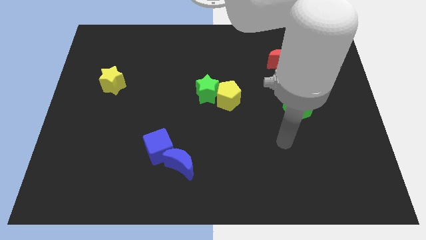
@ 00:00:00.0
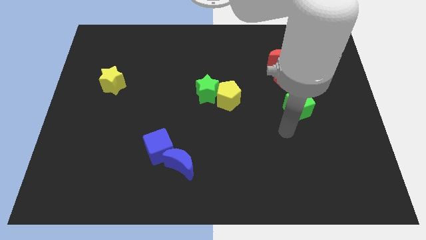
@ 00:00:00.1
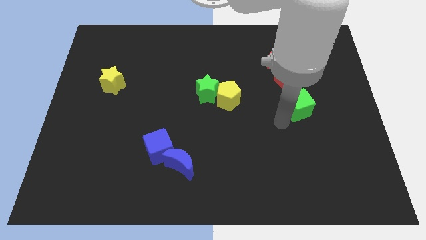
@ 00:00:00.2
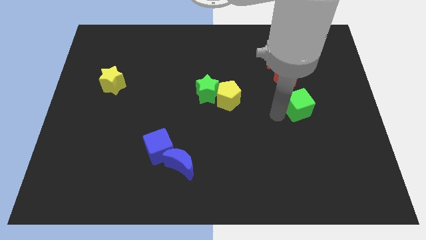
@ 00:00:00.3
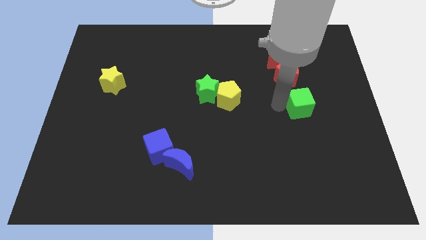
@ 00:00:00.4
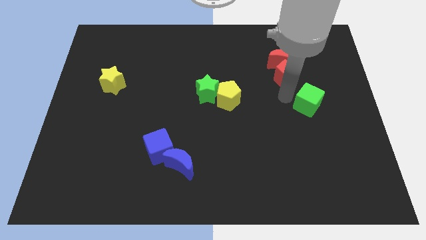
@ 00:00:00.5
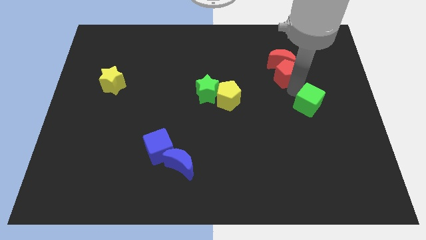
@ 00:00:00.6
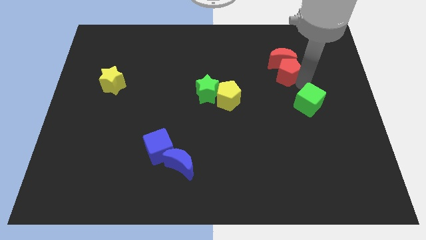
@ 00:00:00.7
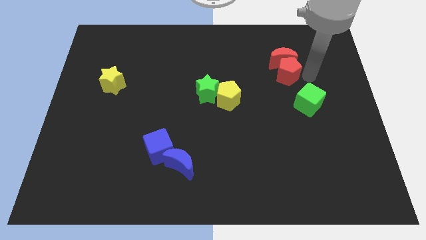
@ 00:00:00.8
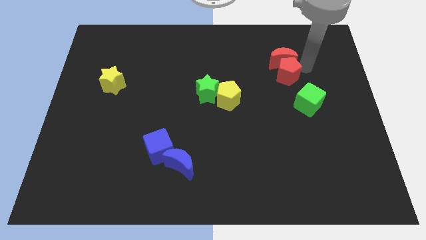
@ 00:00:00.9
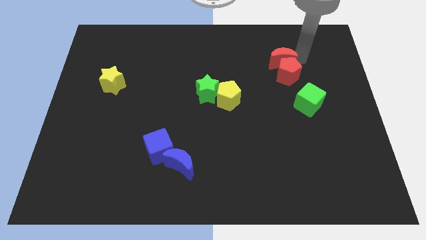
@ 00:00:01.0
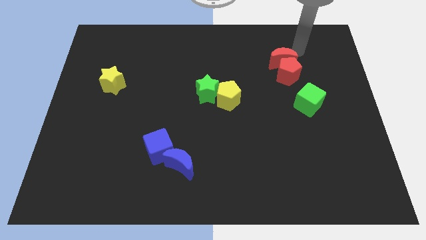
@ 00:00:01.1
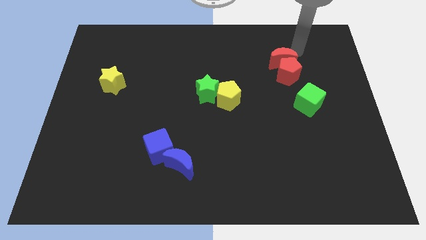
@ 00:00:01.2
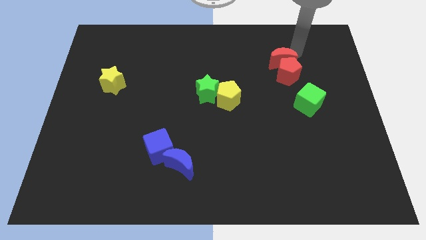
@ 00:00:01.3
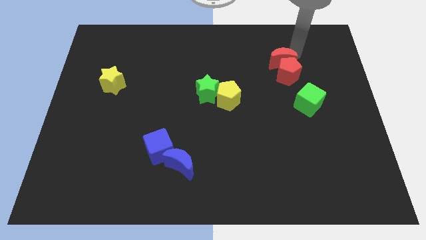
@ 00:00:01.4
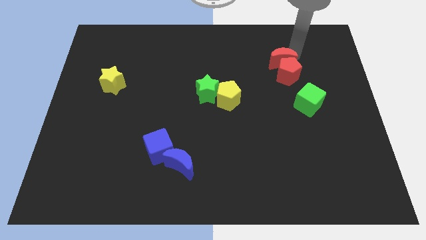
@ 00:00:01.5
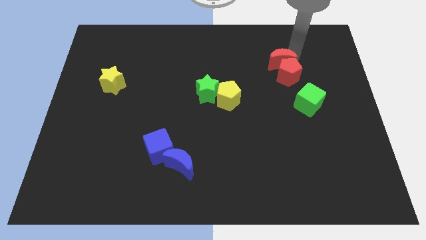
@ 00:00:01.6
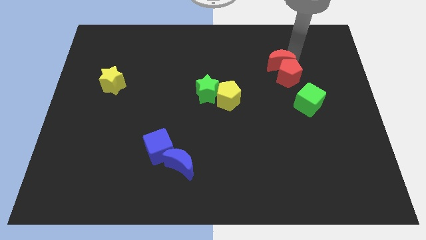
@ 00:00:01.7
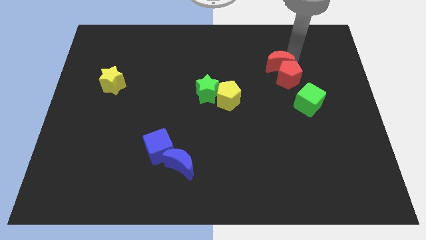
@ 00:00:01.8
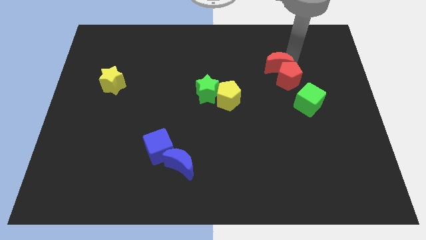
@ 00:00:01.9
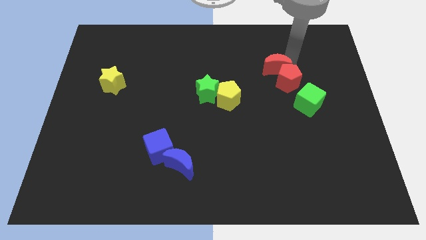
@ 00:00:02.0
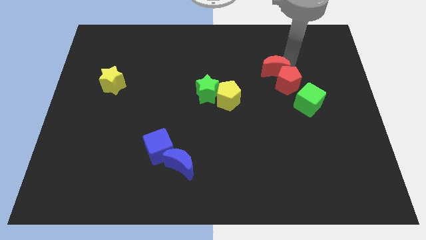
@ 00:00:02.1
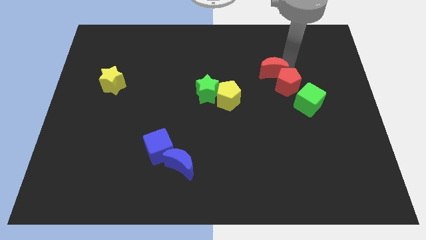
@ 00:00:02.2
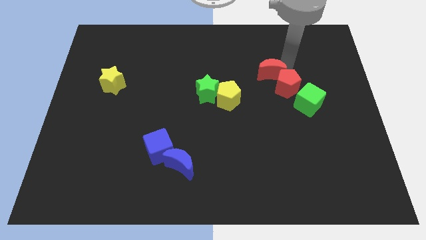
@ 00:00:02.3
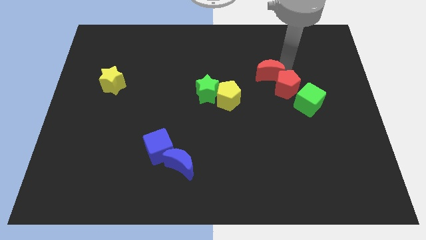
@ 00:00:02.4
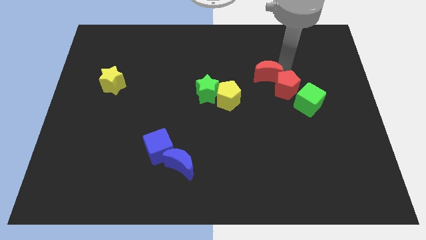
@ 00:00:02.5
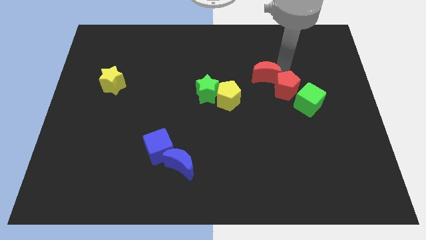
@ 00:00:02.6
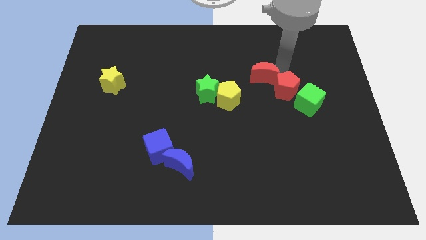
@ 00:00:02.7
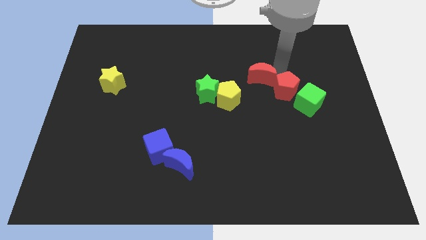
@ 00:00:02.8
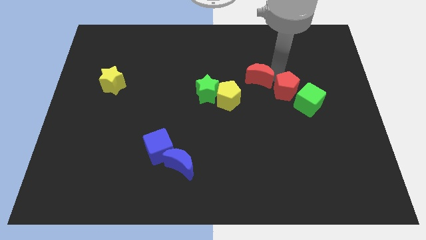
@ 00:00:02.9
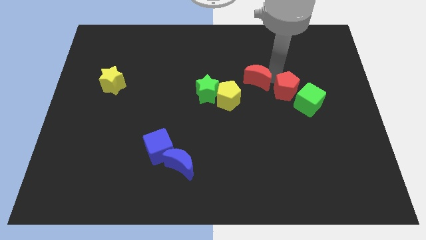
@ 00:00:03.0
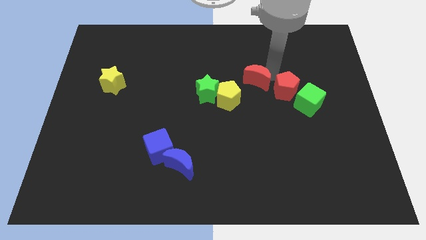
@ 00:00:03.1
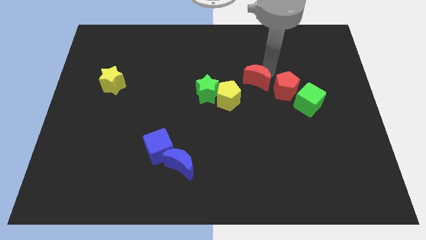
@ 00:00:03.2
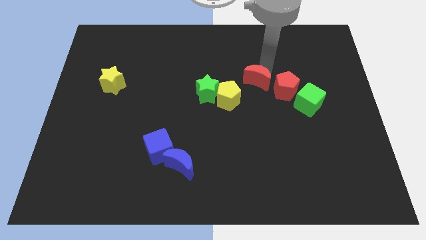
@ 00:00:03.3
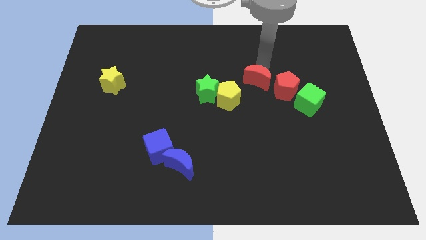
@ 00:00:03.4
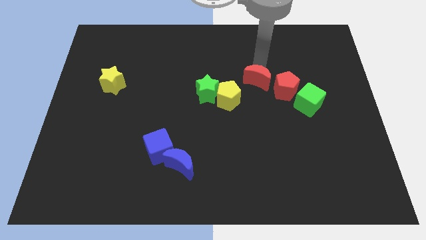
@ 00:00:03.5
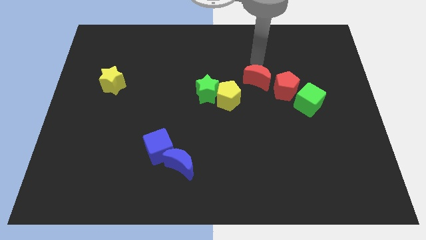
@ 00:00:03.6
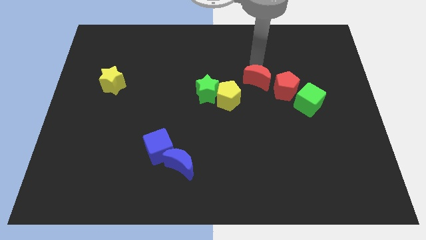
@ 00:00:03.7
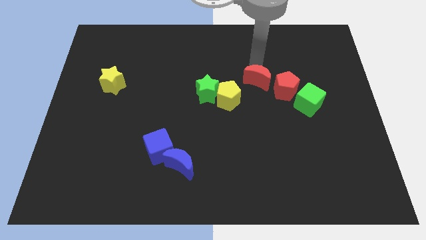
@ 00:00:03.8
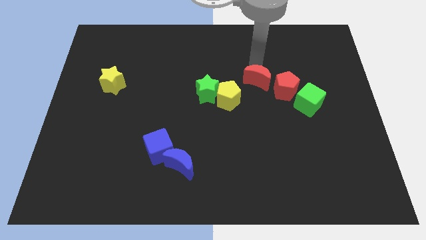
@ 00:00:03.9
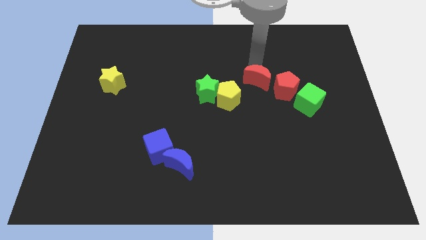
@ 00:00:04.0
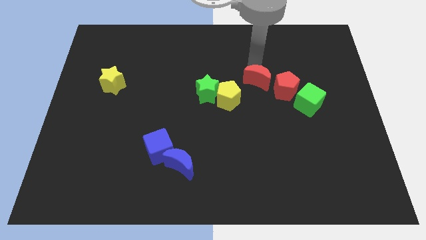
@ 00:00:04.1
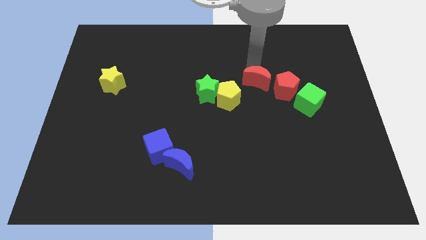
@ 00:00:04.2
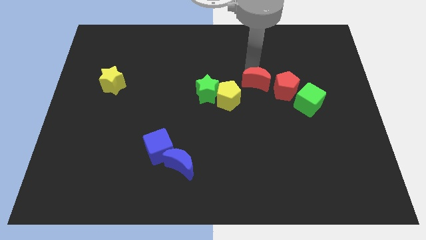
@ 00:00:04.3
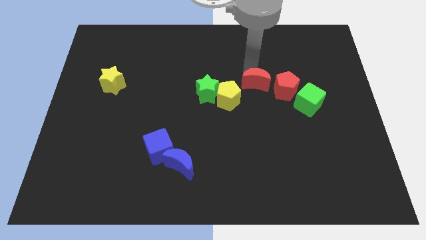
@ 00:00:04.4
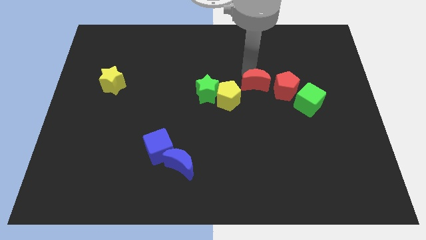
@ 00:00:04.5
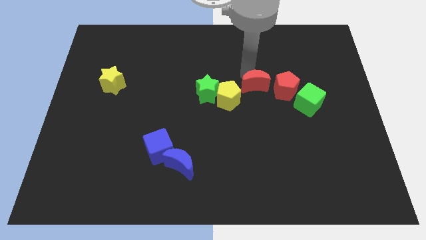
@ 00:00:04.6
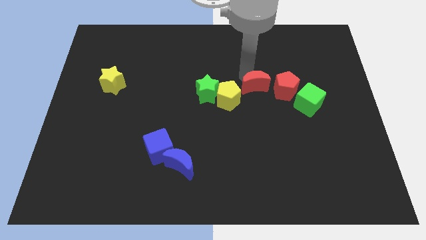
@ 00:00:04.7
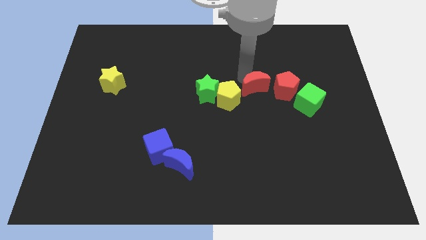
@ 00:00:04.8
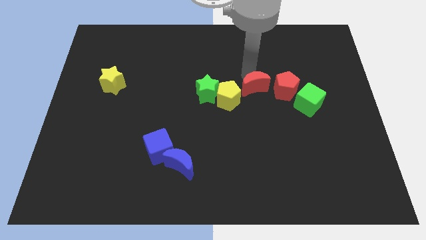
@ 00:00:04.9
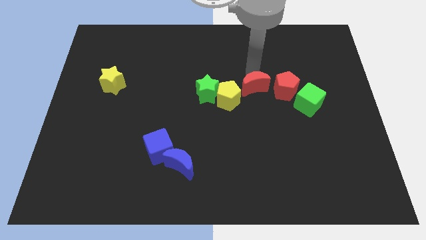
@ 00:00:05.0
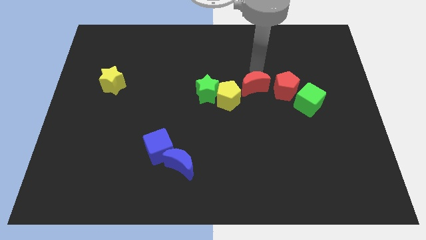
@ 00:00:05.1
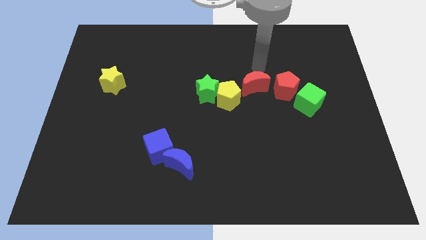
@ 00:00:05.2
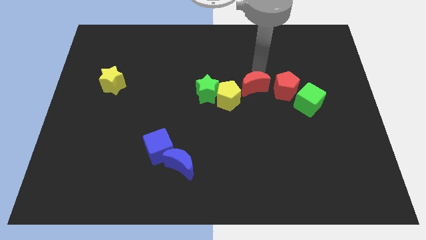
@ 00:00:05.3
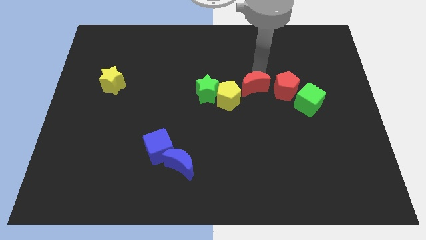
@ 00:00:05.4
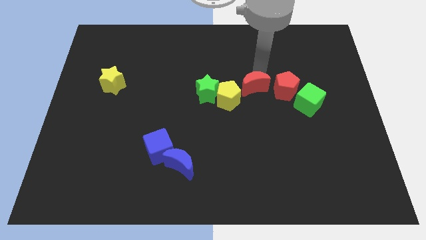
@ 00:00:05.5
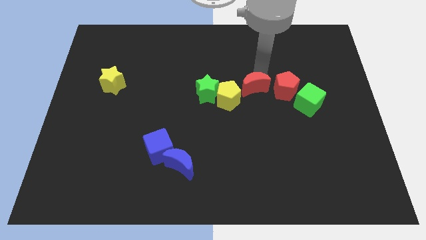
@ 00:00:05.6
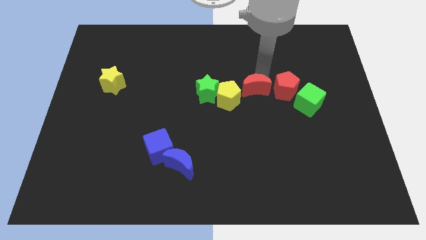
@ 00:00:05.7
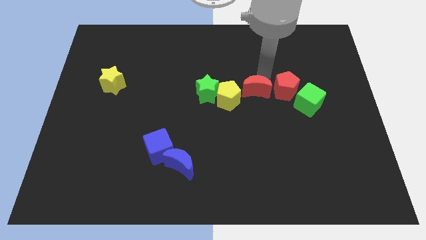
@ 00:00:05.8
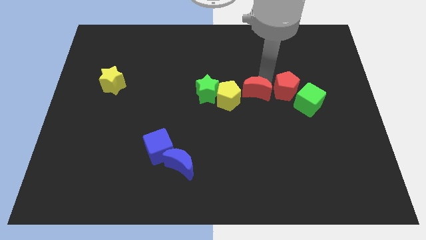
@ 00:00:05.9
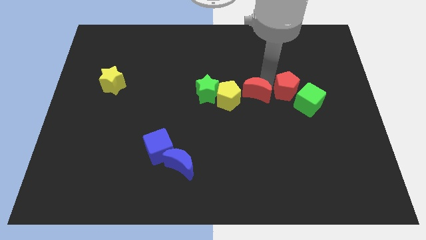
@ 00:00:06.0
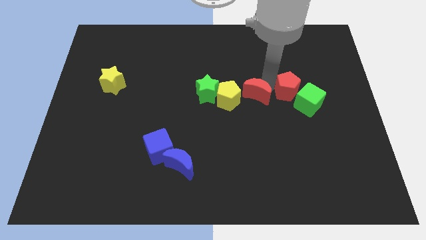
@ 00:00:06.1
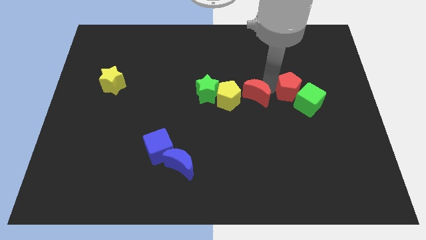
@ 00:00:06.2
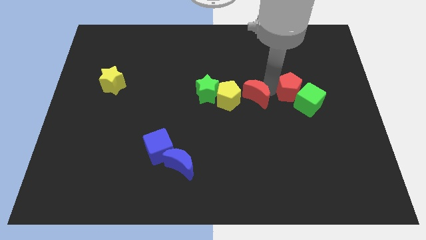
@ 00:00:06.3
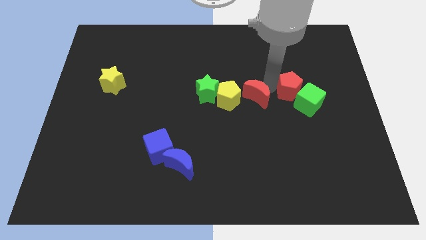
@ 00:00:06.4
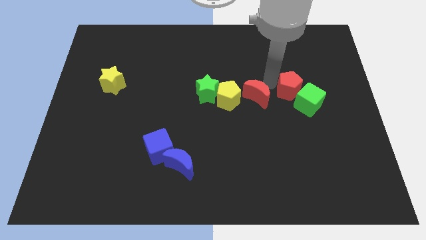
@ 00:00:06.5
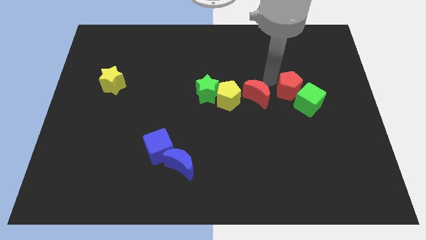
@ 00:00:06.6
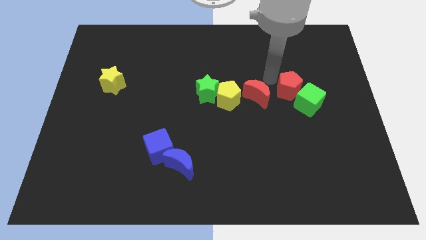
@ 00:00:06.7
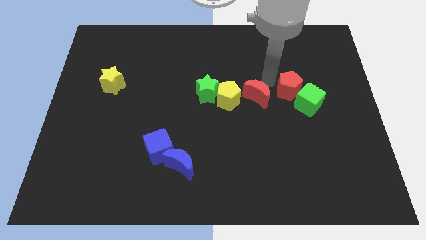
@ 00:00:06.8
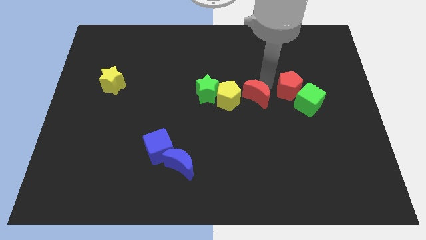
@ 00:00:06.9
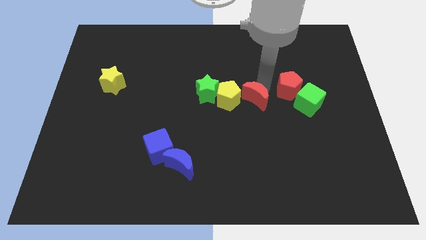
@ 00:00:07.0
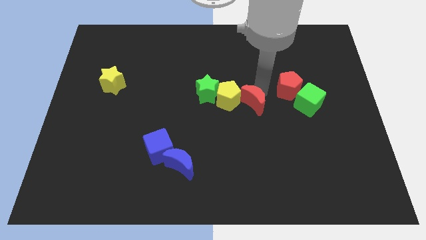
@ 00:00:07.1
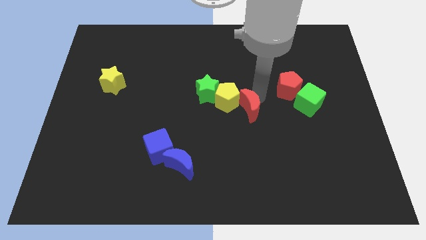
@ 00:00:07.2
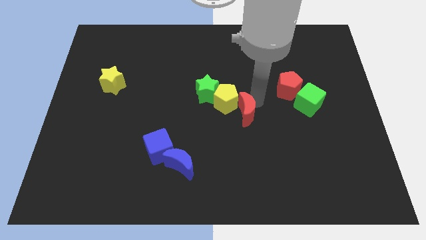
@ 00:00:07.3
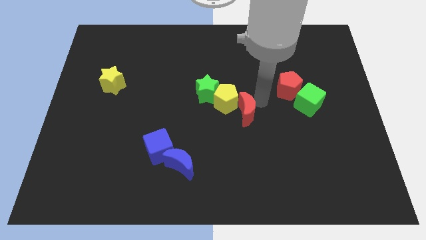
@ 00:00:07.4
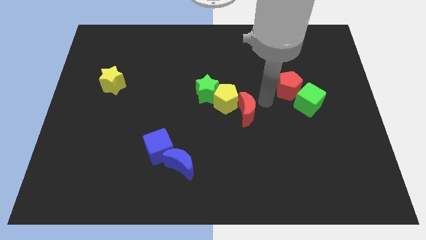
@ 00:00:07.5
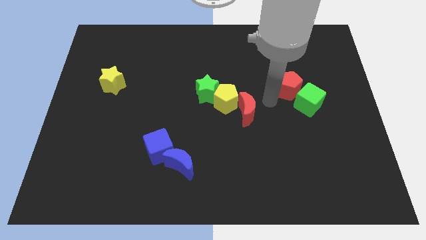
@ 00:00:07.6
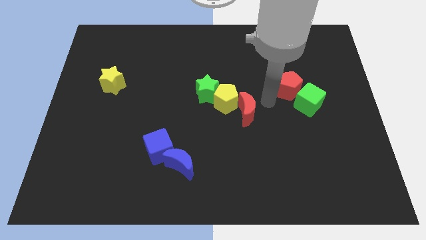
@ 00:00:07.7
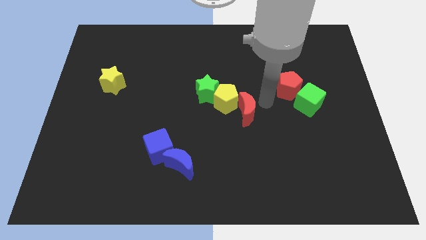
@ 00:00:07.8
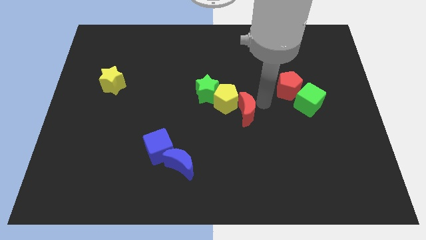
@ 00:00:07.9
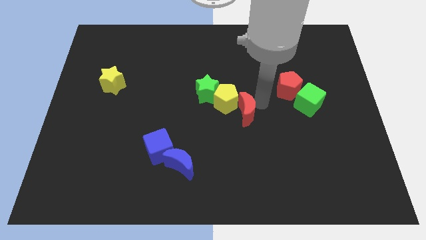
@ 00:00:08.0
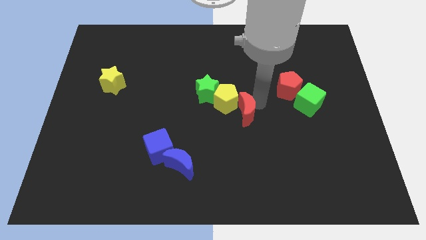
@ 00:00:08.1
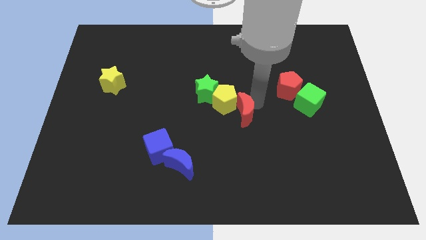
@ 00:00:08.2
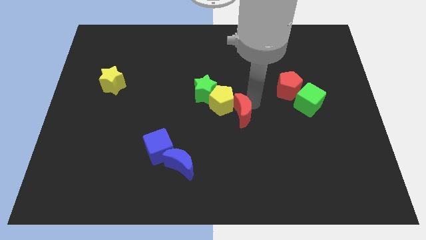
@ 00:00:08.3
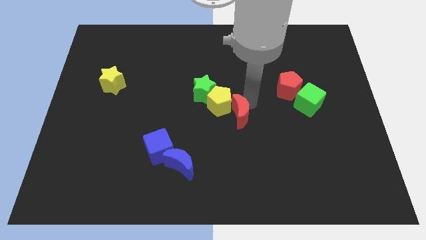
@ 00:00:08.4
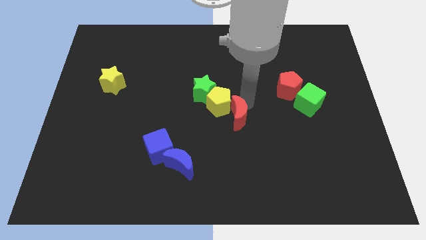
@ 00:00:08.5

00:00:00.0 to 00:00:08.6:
move the red moon down and left
